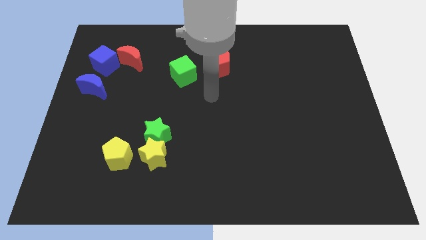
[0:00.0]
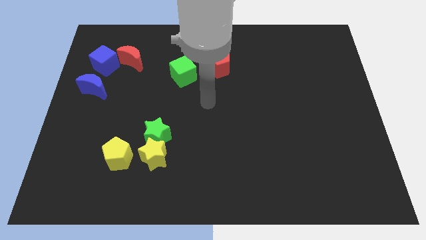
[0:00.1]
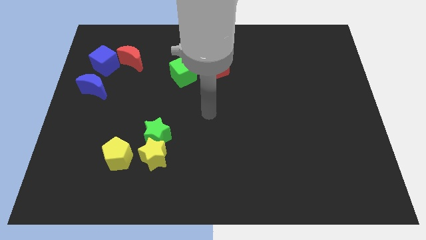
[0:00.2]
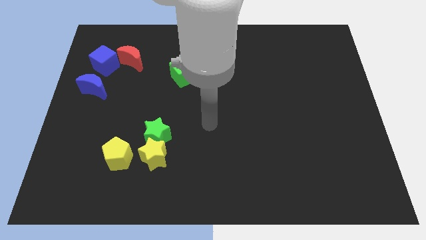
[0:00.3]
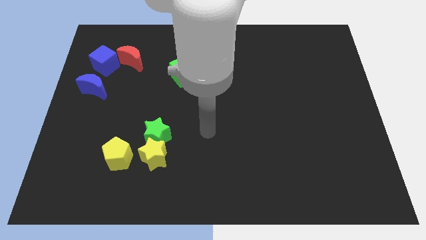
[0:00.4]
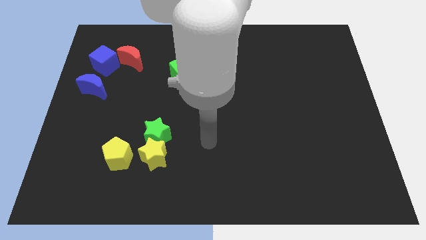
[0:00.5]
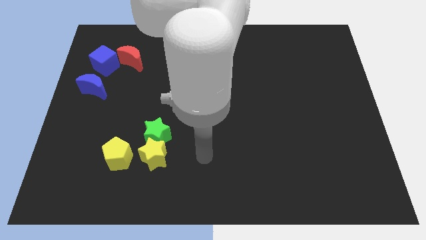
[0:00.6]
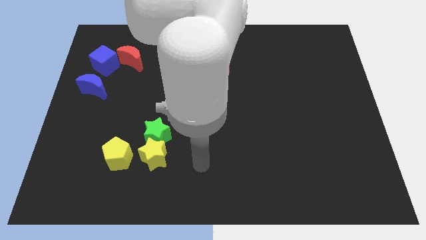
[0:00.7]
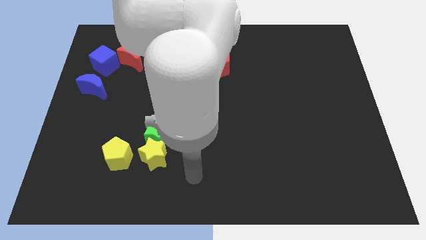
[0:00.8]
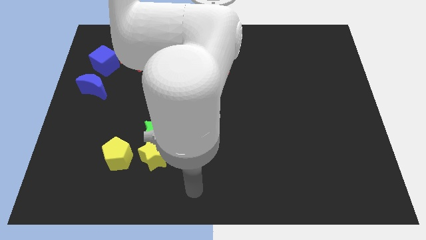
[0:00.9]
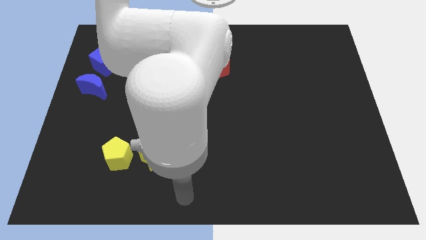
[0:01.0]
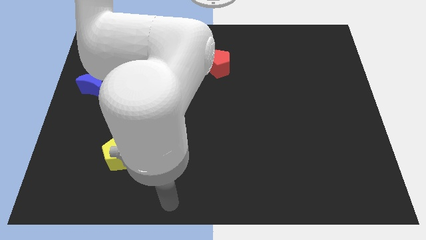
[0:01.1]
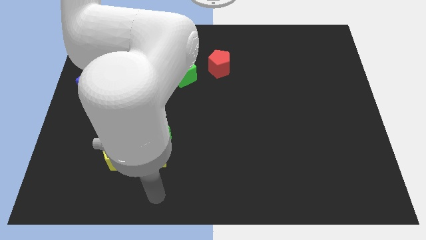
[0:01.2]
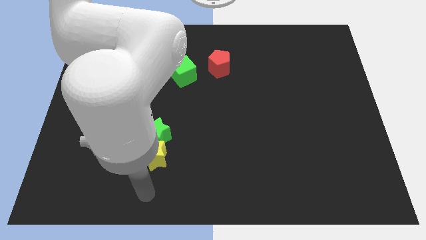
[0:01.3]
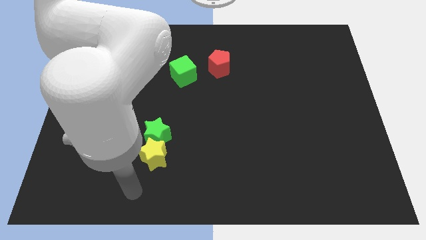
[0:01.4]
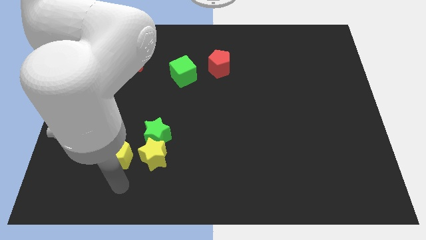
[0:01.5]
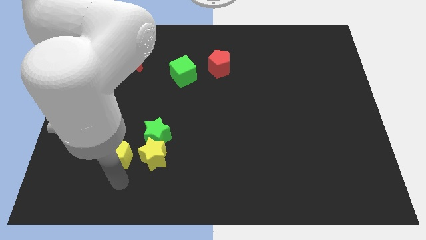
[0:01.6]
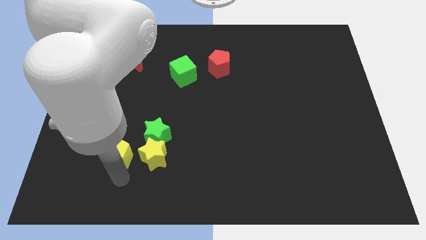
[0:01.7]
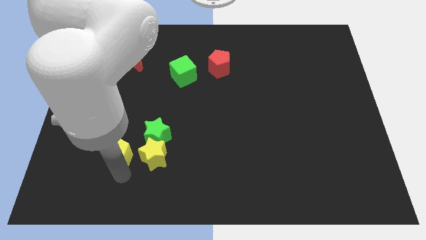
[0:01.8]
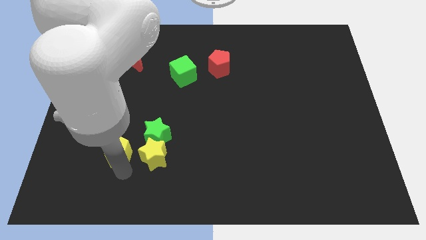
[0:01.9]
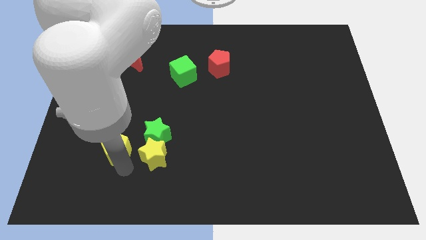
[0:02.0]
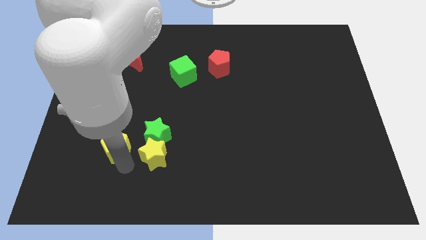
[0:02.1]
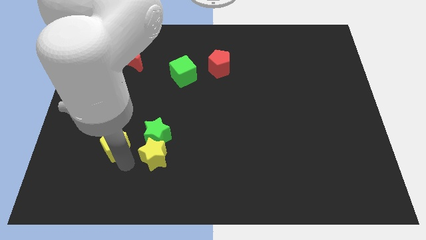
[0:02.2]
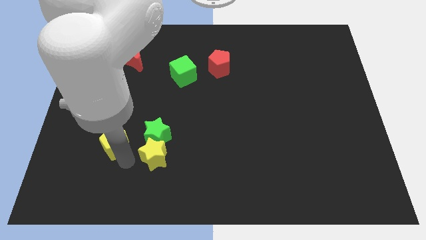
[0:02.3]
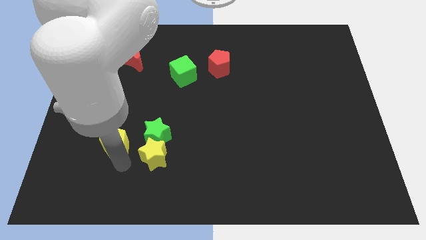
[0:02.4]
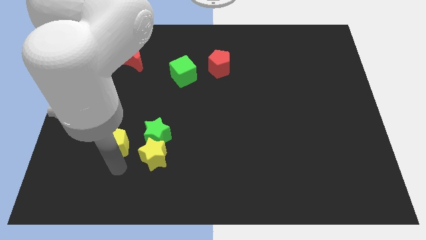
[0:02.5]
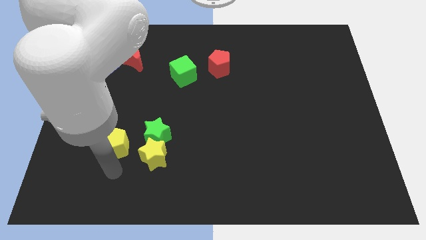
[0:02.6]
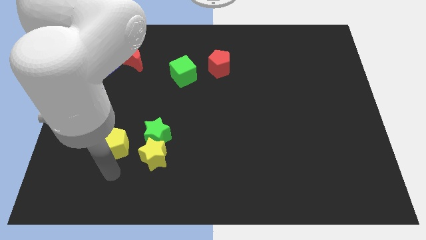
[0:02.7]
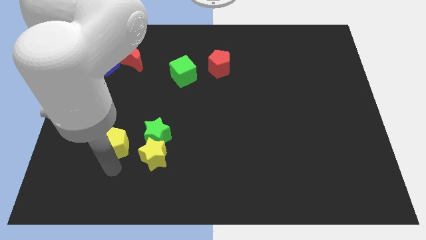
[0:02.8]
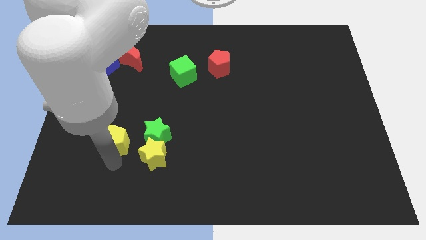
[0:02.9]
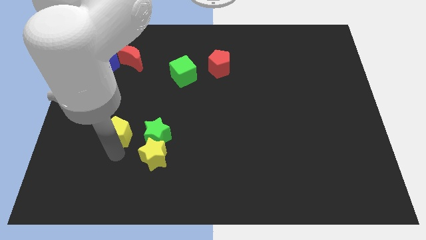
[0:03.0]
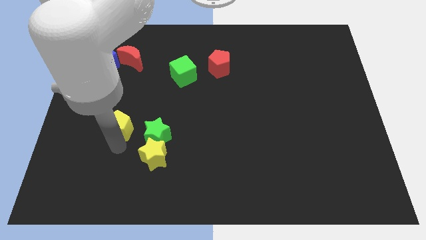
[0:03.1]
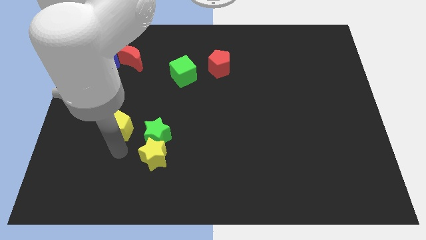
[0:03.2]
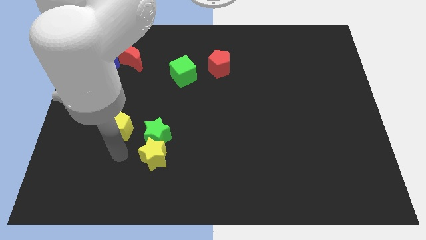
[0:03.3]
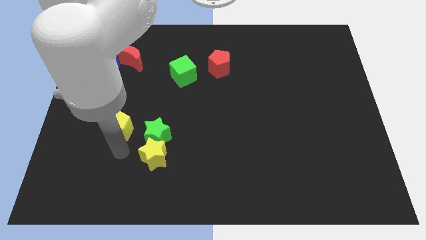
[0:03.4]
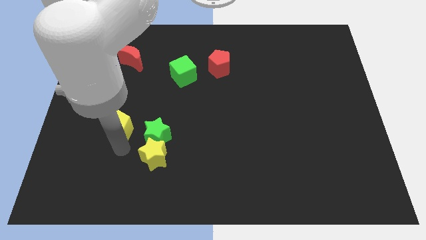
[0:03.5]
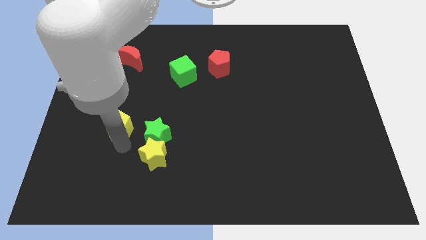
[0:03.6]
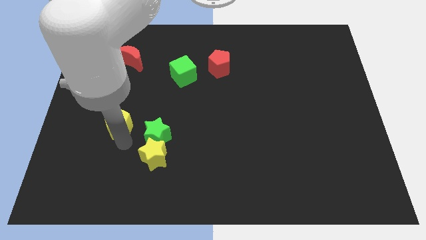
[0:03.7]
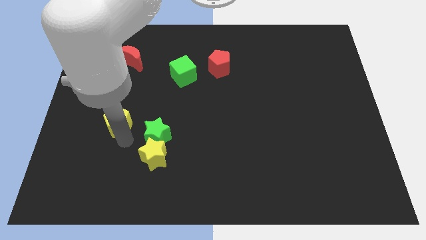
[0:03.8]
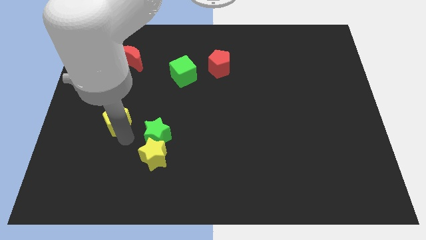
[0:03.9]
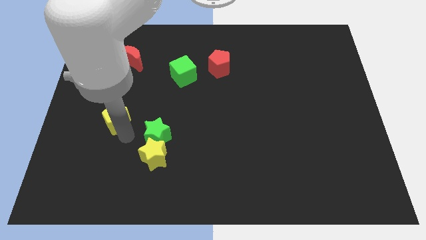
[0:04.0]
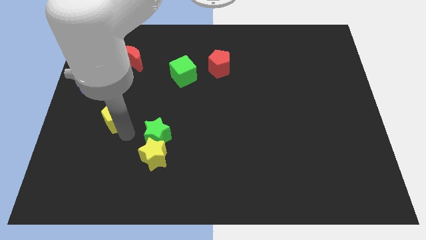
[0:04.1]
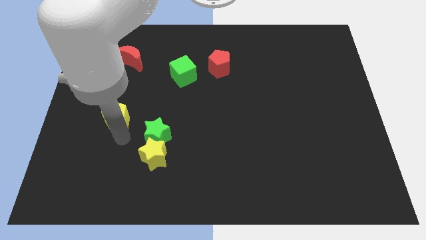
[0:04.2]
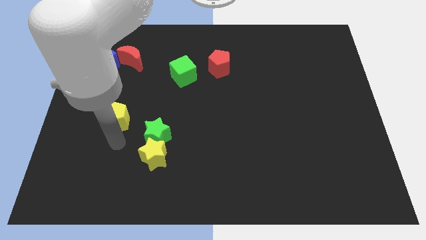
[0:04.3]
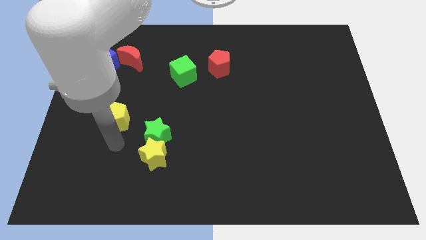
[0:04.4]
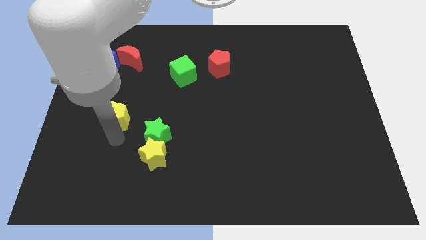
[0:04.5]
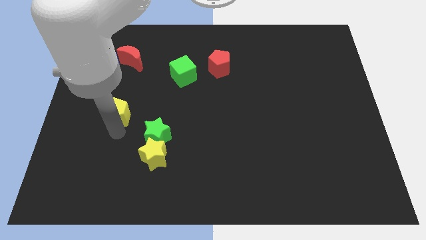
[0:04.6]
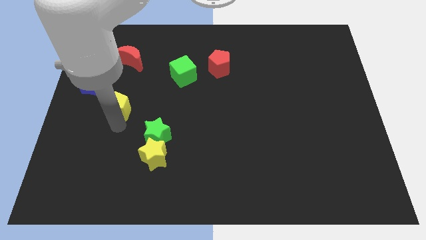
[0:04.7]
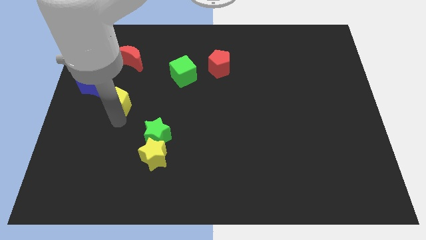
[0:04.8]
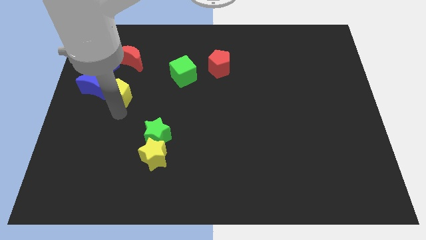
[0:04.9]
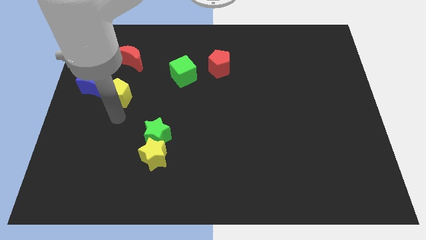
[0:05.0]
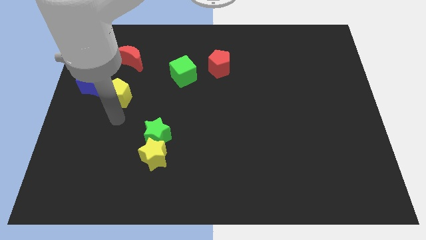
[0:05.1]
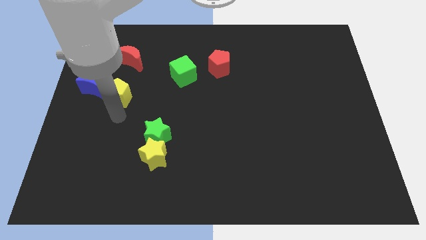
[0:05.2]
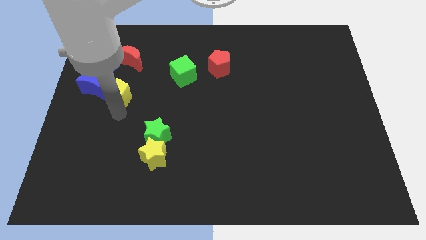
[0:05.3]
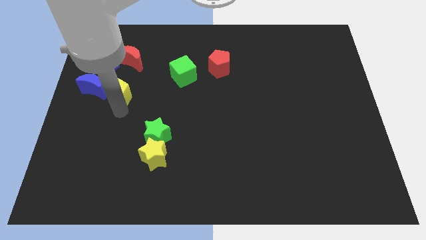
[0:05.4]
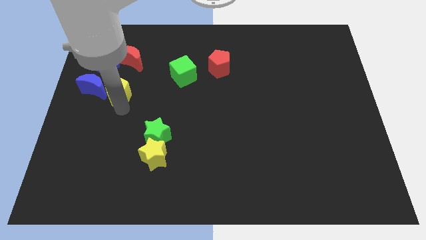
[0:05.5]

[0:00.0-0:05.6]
push the yellow pentagon to the bottom right of the blue cube

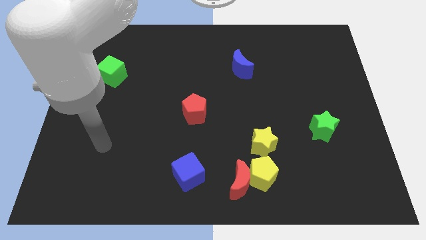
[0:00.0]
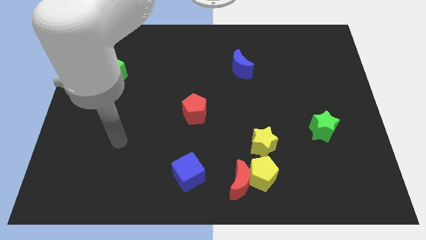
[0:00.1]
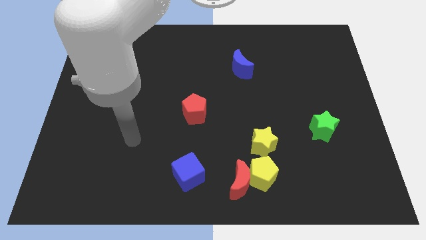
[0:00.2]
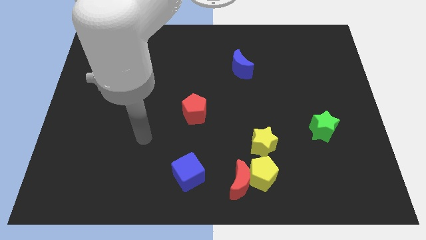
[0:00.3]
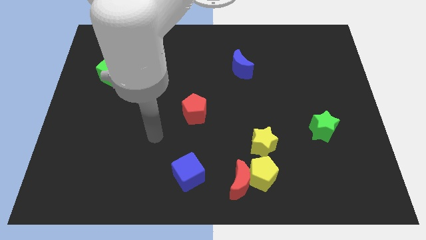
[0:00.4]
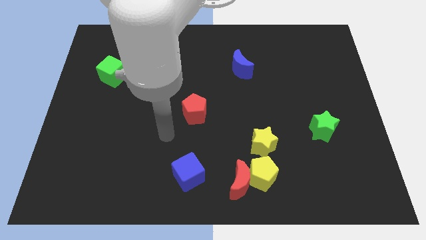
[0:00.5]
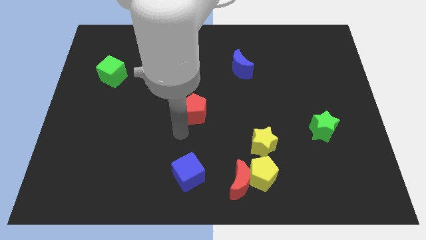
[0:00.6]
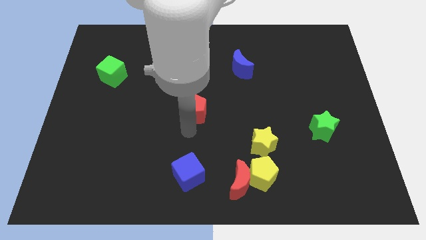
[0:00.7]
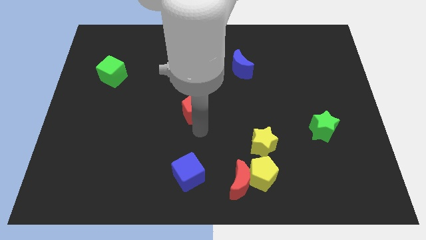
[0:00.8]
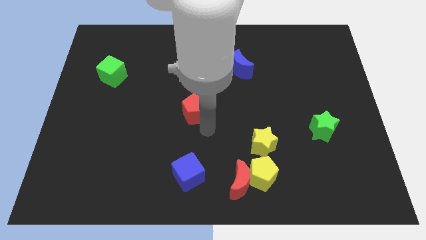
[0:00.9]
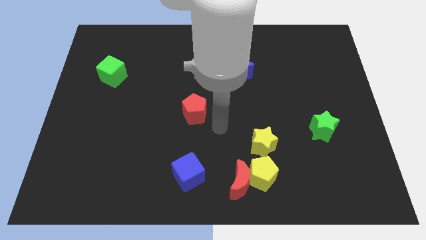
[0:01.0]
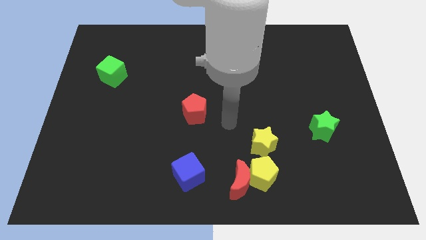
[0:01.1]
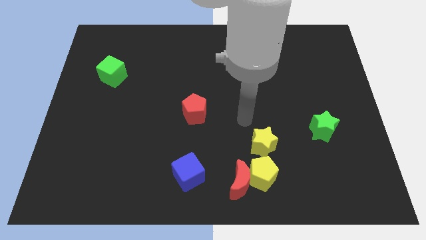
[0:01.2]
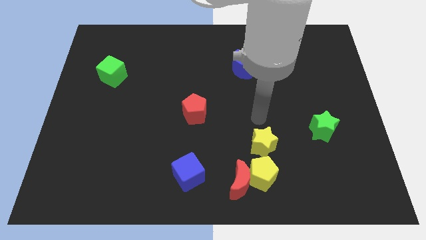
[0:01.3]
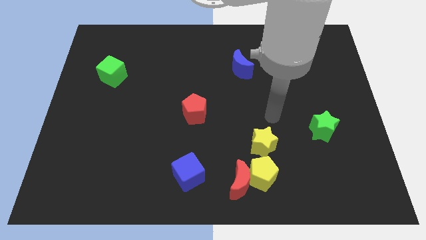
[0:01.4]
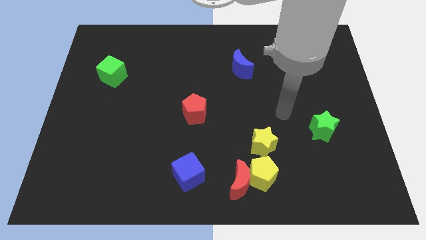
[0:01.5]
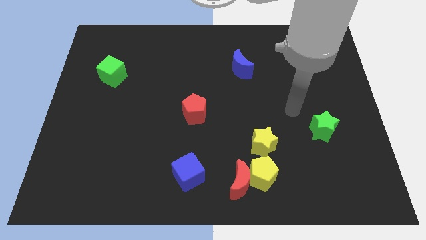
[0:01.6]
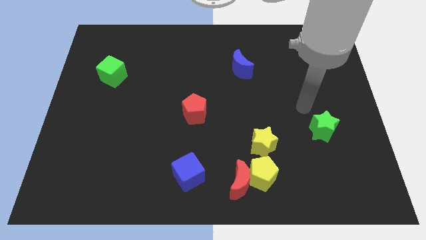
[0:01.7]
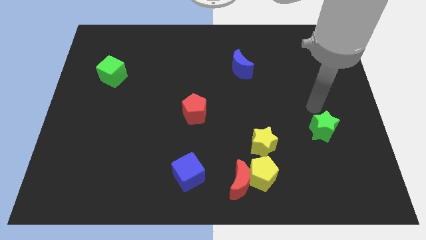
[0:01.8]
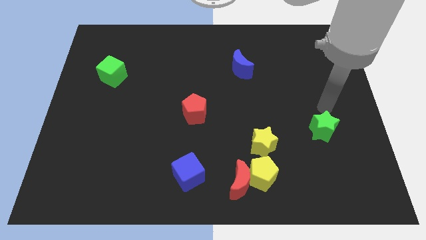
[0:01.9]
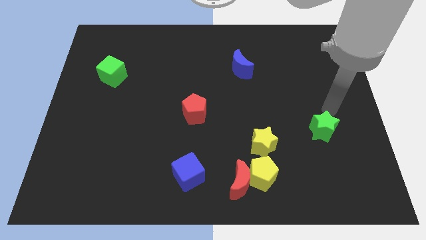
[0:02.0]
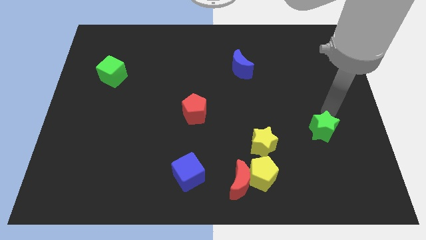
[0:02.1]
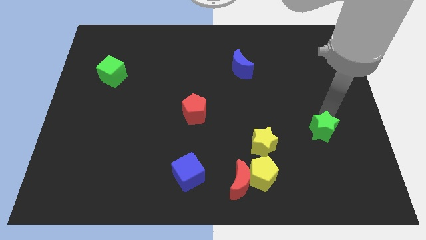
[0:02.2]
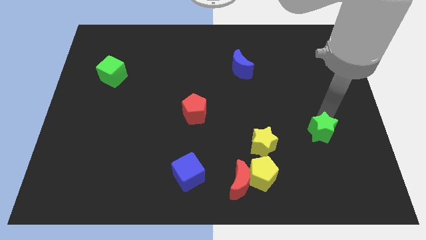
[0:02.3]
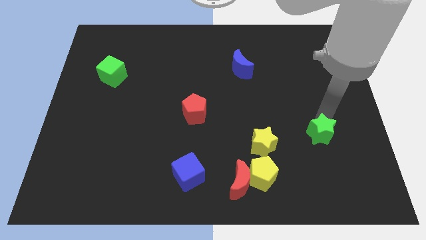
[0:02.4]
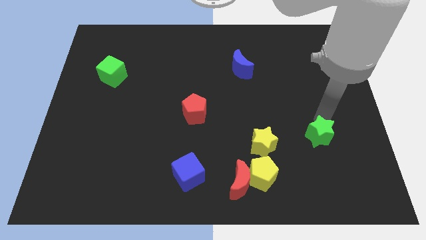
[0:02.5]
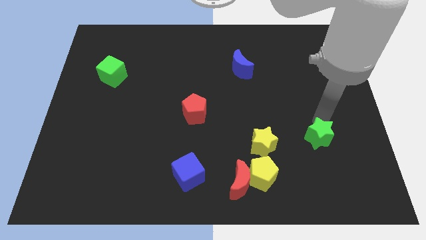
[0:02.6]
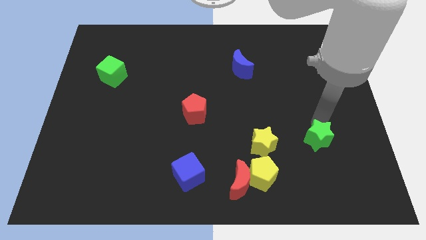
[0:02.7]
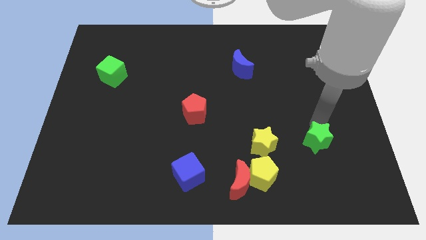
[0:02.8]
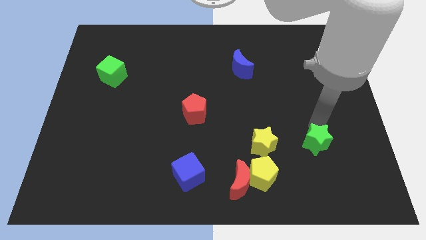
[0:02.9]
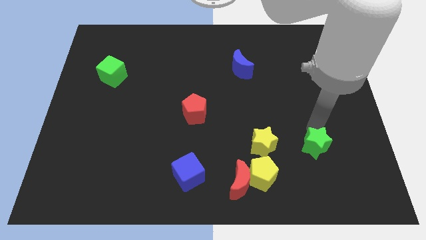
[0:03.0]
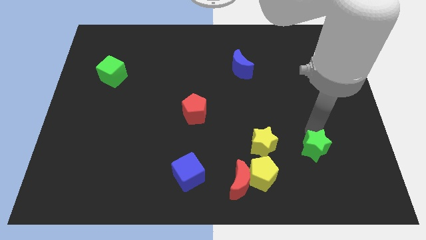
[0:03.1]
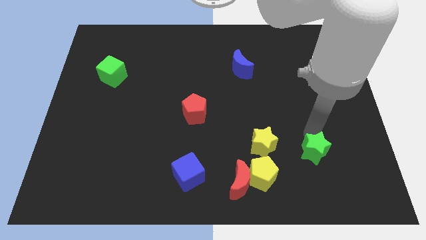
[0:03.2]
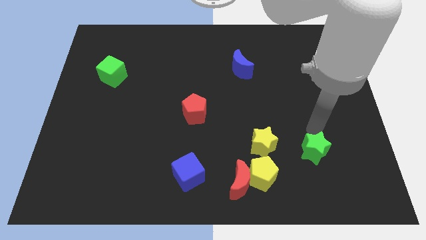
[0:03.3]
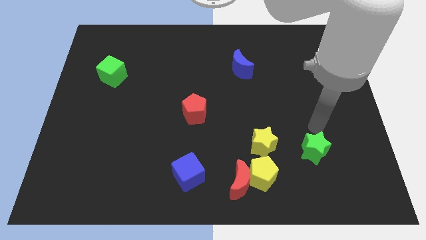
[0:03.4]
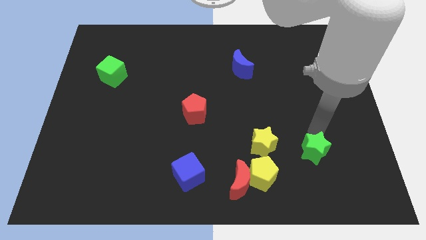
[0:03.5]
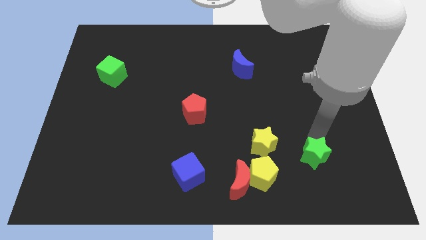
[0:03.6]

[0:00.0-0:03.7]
move the green star to the right of the yellow pentagon
